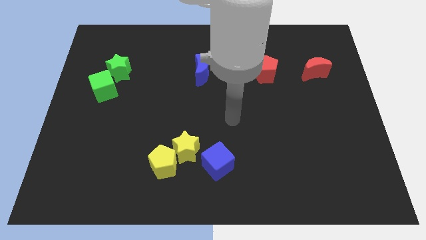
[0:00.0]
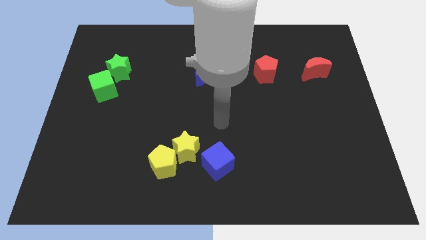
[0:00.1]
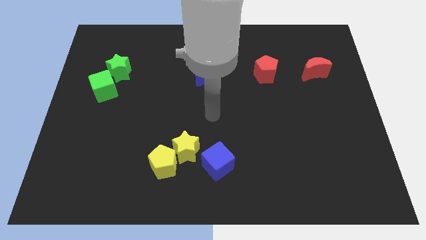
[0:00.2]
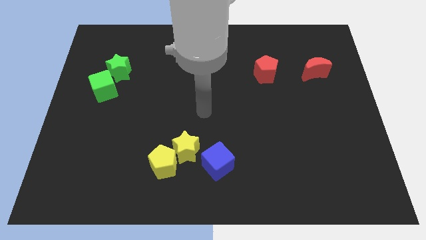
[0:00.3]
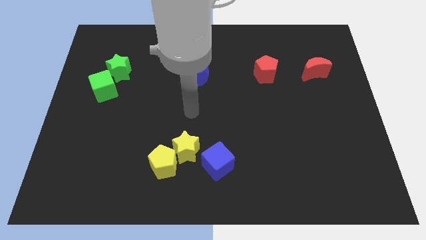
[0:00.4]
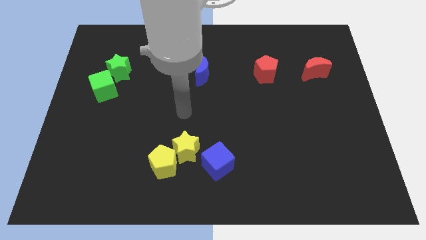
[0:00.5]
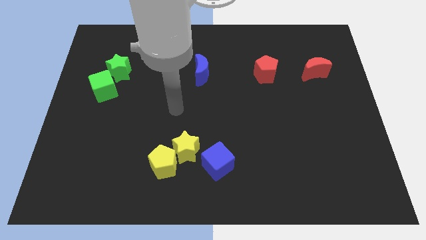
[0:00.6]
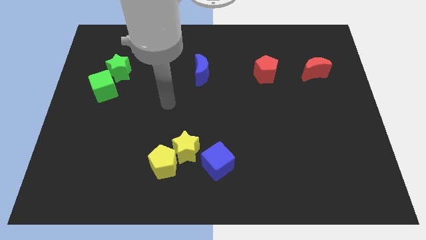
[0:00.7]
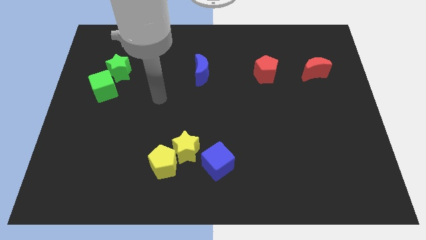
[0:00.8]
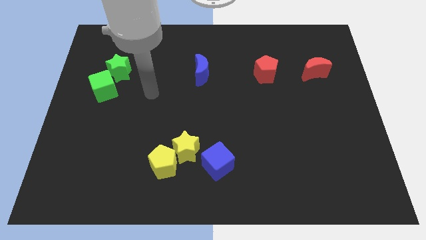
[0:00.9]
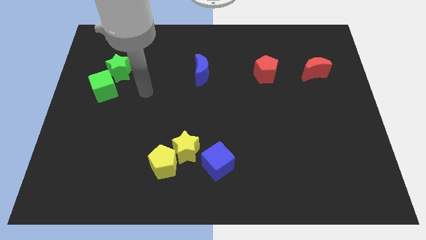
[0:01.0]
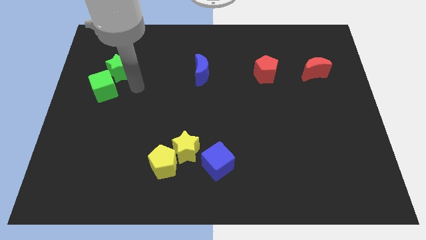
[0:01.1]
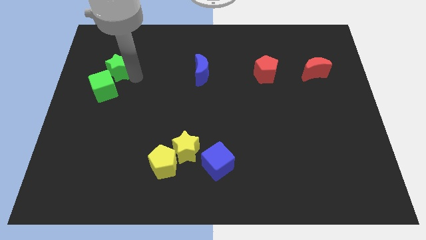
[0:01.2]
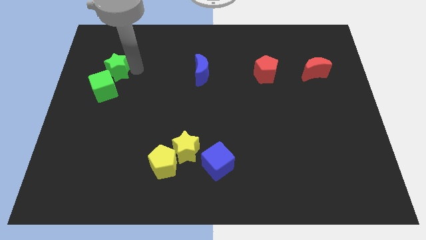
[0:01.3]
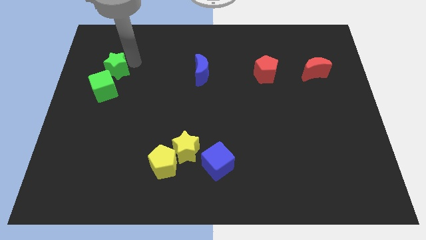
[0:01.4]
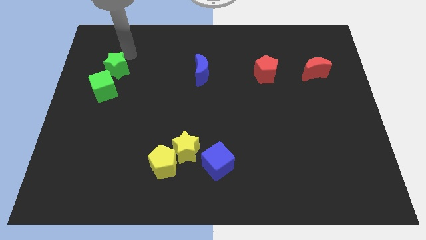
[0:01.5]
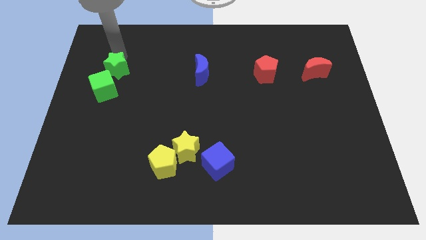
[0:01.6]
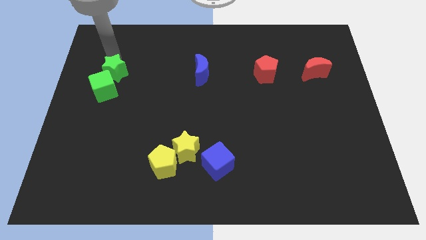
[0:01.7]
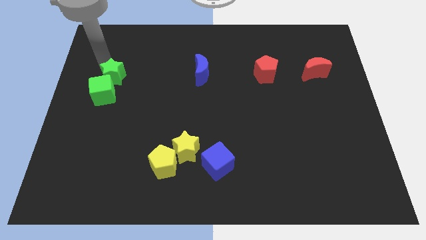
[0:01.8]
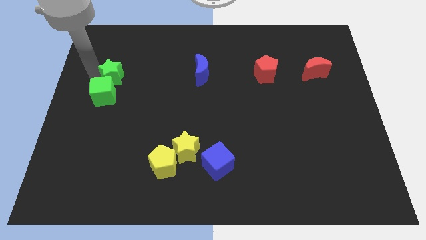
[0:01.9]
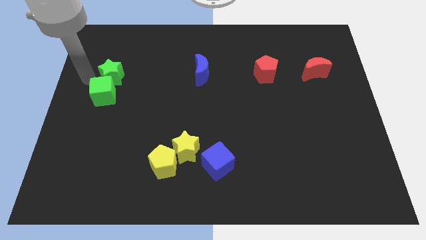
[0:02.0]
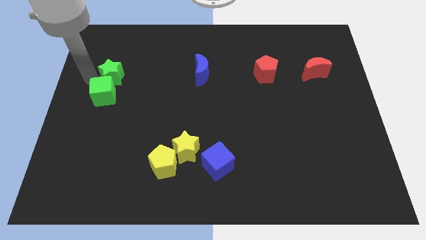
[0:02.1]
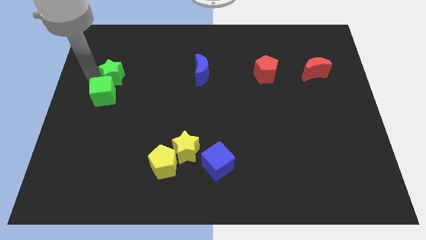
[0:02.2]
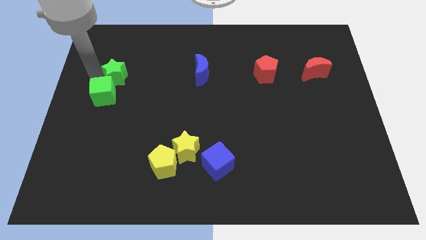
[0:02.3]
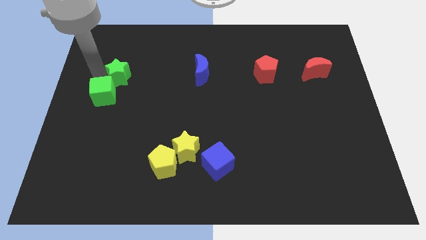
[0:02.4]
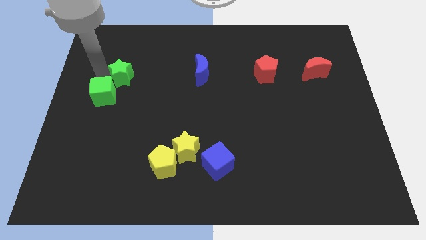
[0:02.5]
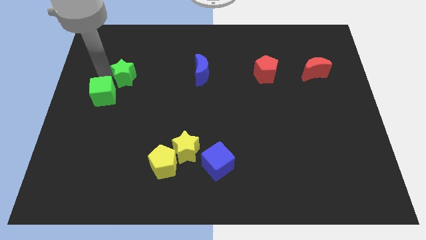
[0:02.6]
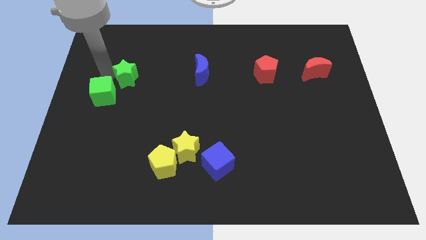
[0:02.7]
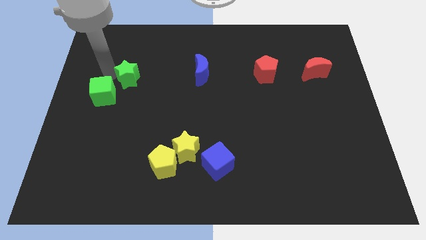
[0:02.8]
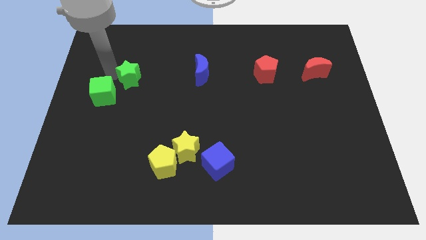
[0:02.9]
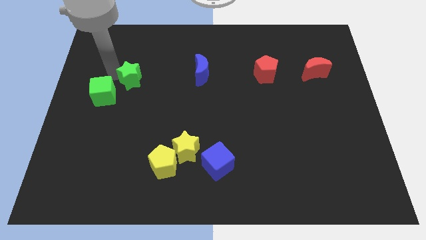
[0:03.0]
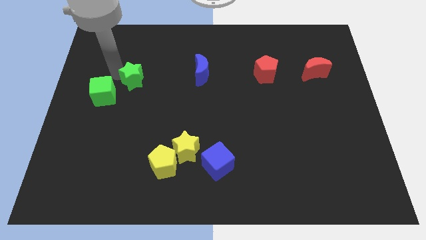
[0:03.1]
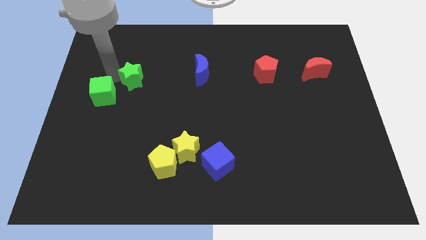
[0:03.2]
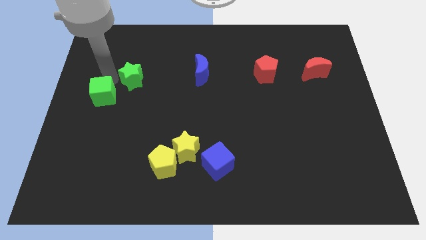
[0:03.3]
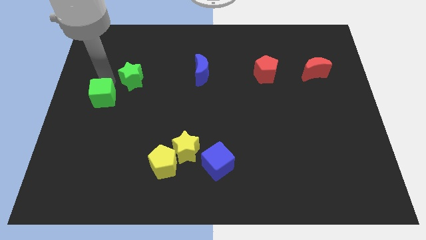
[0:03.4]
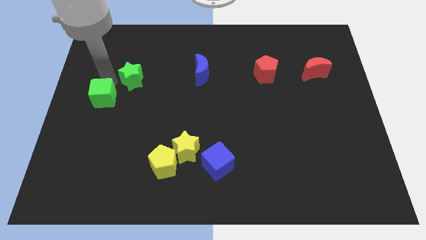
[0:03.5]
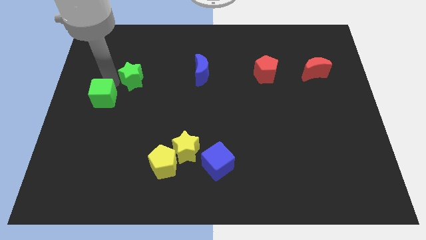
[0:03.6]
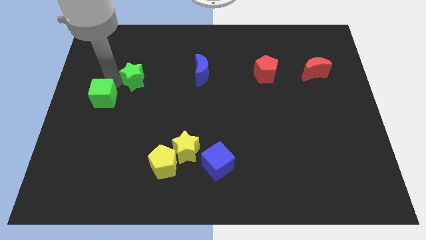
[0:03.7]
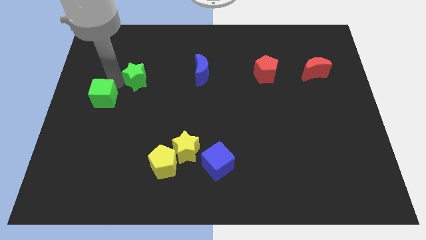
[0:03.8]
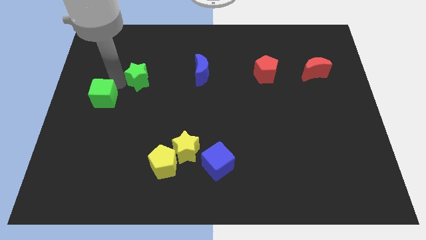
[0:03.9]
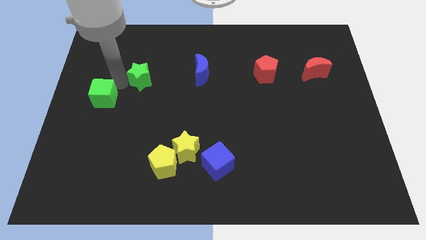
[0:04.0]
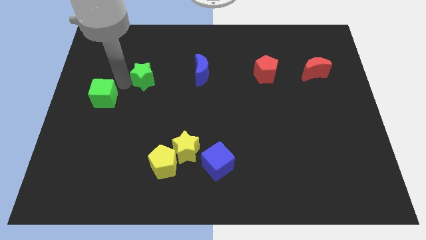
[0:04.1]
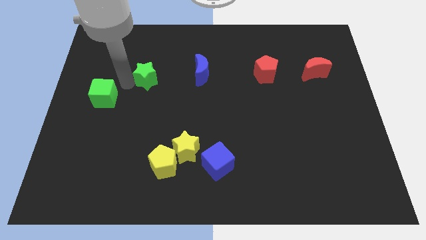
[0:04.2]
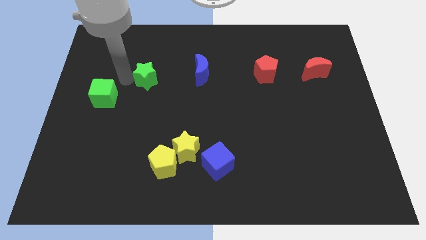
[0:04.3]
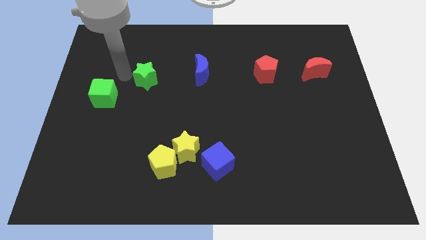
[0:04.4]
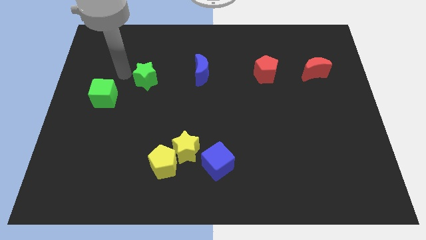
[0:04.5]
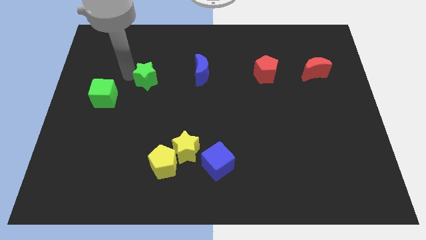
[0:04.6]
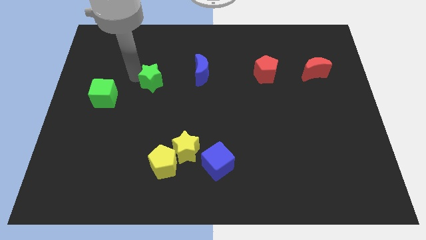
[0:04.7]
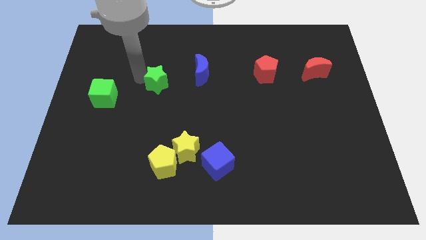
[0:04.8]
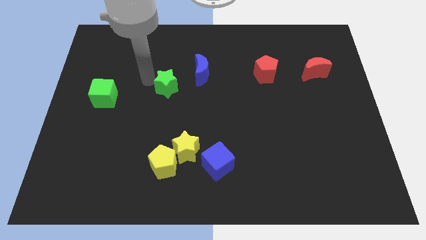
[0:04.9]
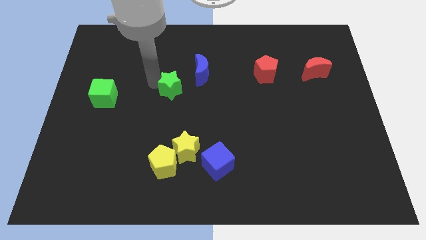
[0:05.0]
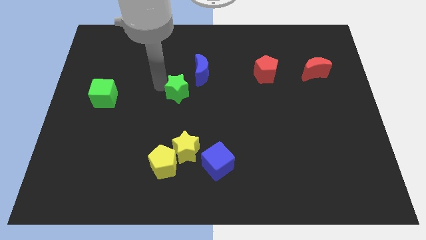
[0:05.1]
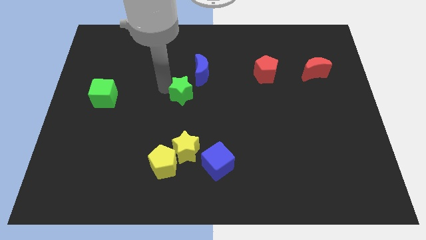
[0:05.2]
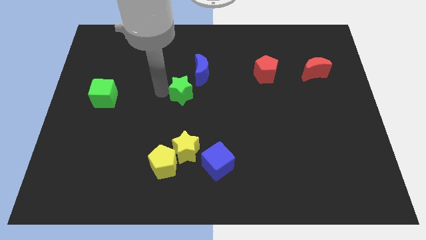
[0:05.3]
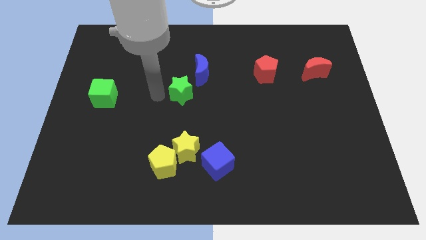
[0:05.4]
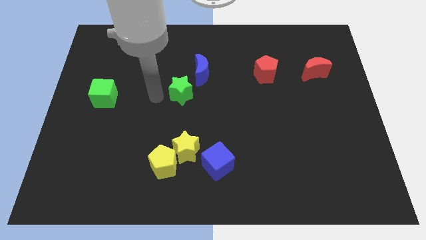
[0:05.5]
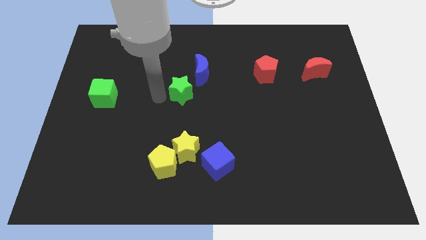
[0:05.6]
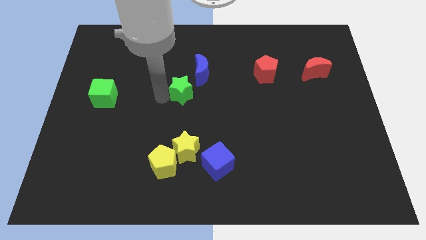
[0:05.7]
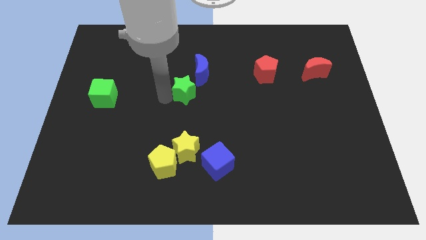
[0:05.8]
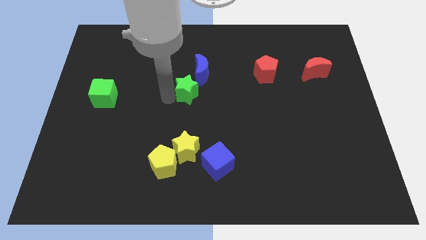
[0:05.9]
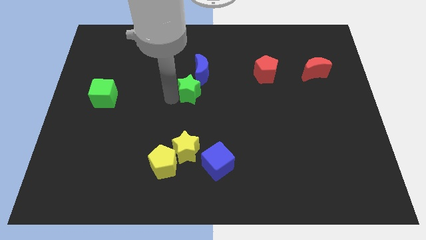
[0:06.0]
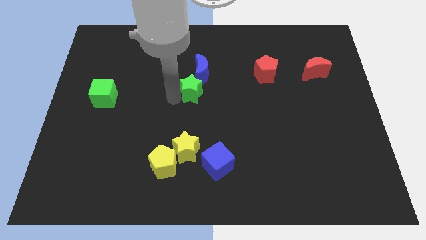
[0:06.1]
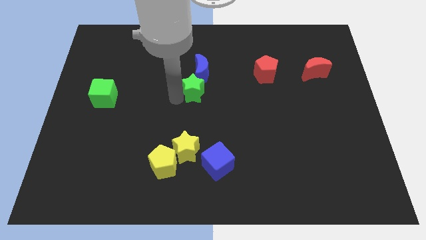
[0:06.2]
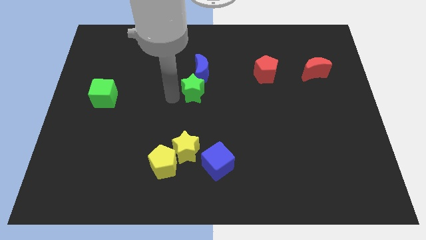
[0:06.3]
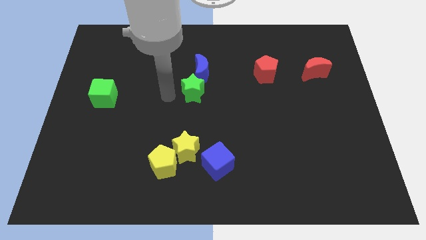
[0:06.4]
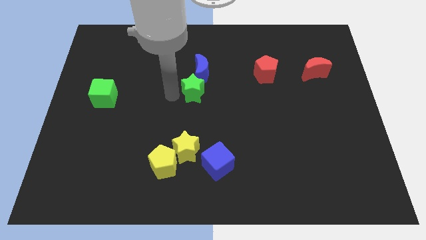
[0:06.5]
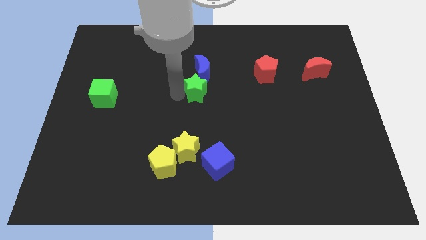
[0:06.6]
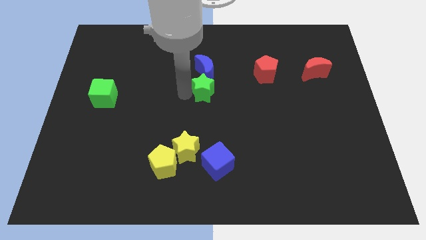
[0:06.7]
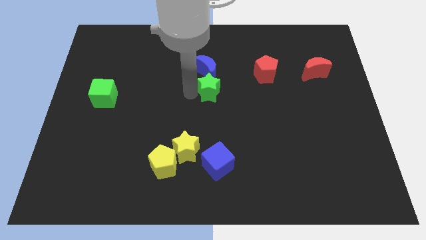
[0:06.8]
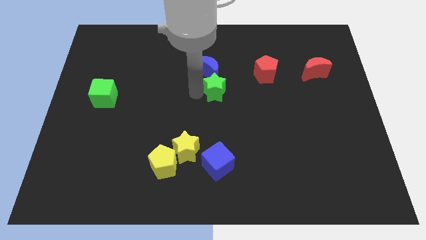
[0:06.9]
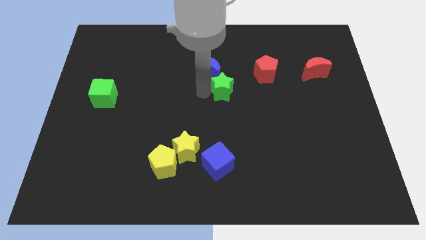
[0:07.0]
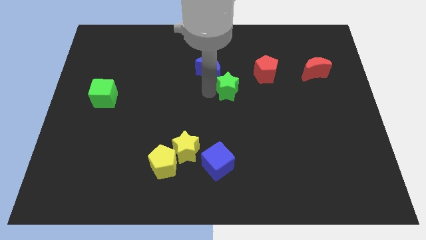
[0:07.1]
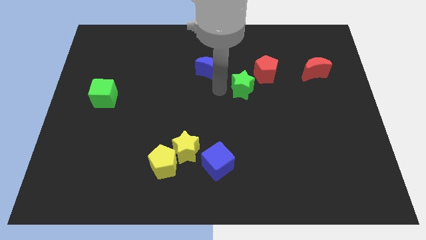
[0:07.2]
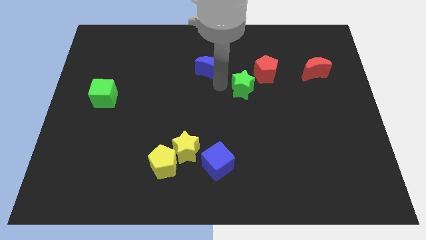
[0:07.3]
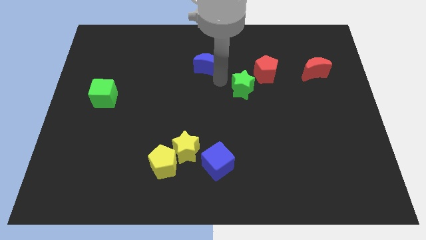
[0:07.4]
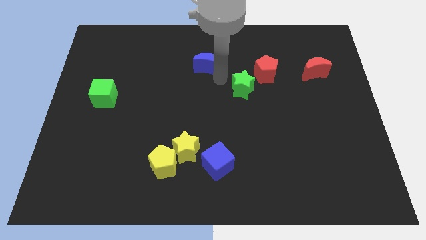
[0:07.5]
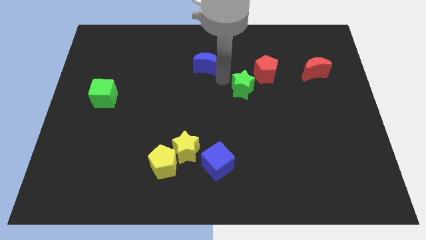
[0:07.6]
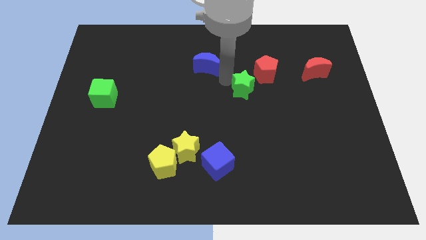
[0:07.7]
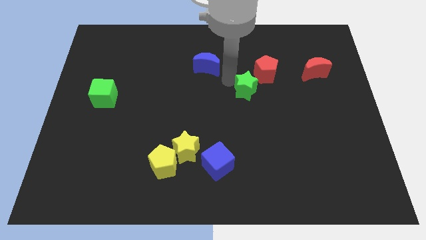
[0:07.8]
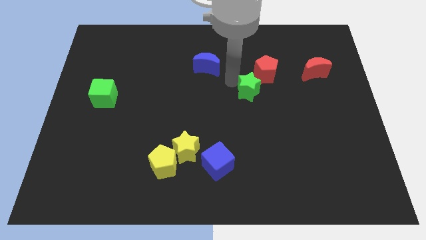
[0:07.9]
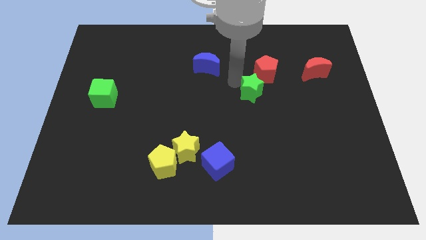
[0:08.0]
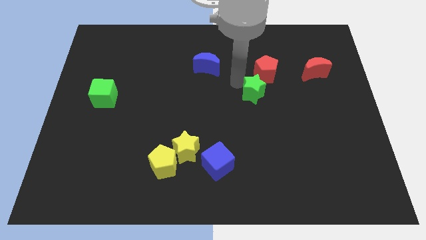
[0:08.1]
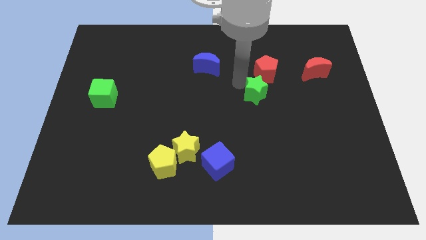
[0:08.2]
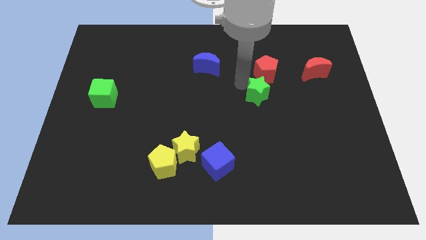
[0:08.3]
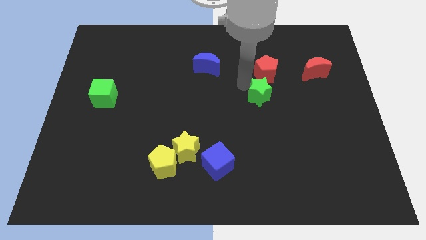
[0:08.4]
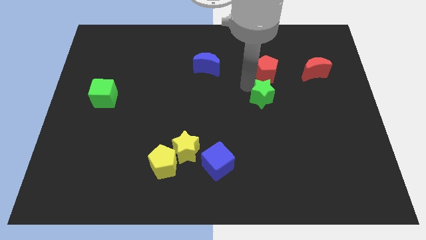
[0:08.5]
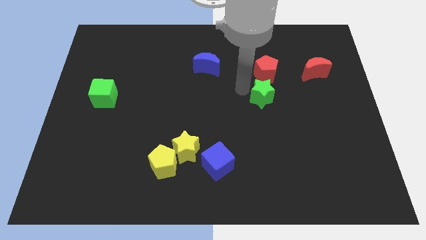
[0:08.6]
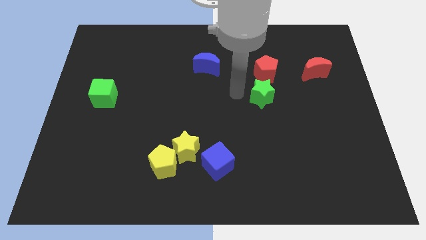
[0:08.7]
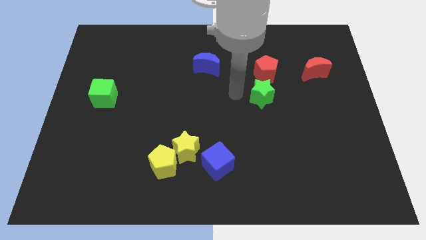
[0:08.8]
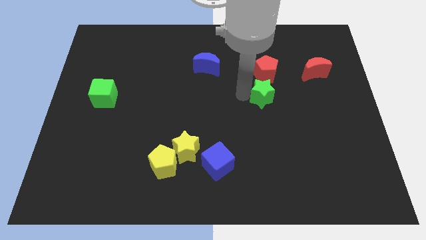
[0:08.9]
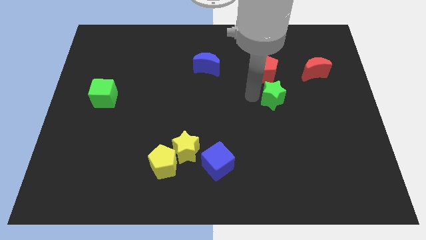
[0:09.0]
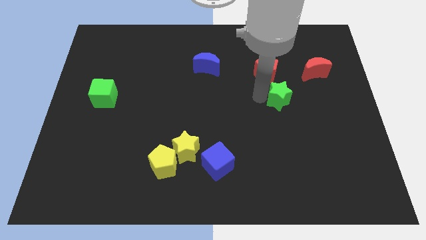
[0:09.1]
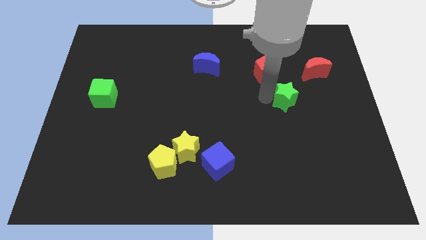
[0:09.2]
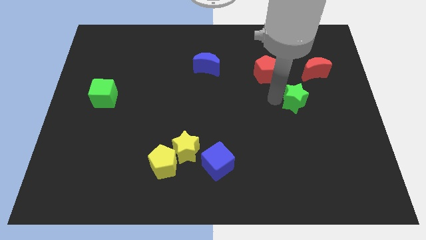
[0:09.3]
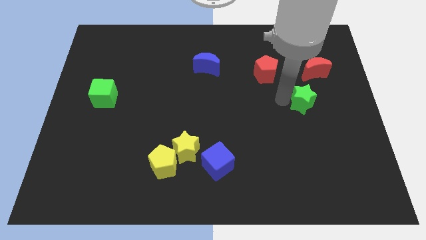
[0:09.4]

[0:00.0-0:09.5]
move the green star below the red moon
